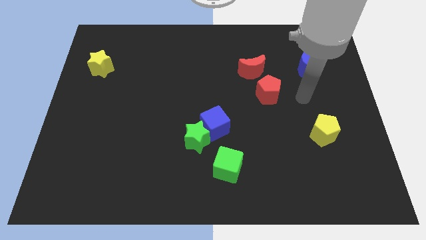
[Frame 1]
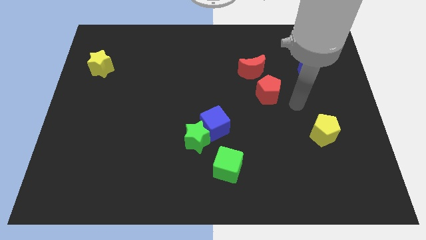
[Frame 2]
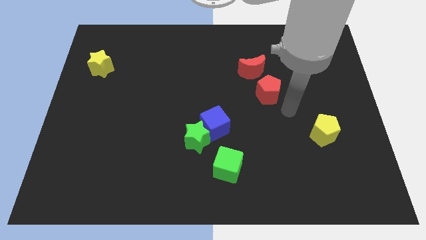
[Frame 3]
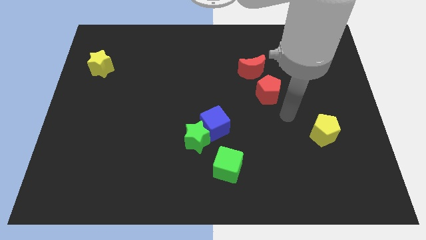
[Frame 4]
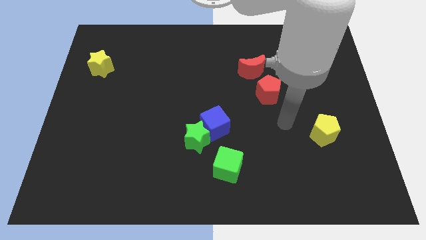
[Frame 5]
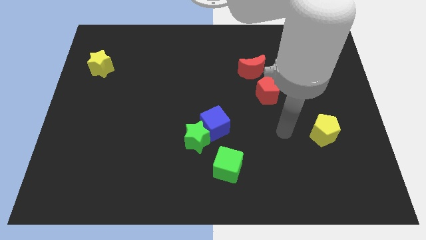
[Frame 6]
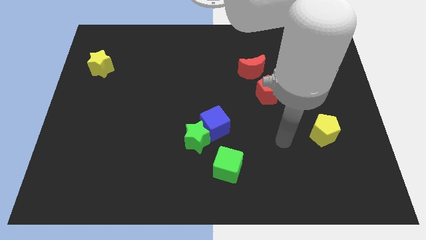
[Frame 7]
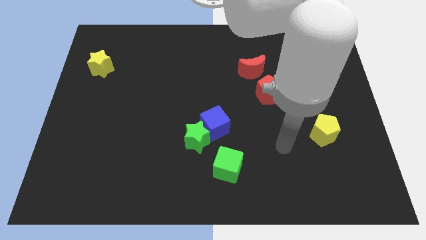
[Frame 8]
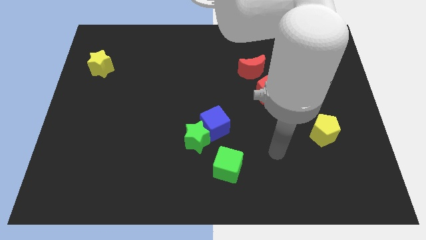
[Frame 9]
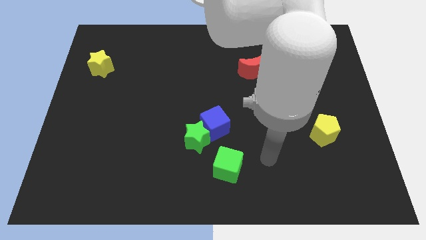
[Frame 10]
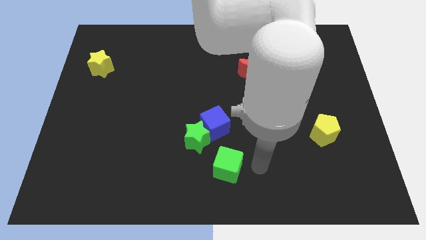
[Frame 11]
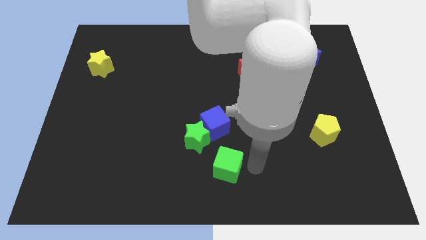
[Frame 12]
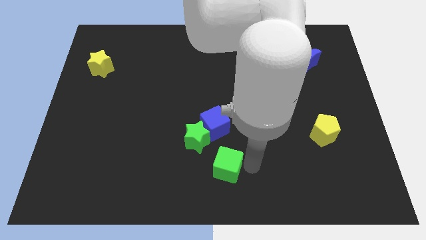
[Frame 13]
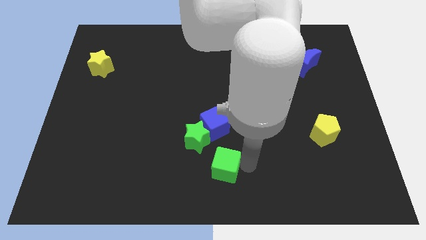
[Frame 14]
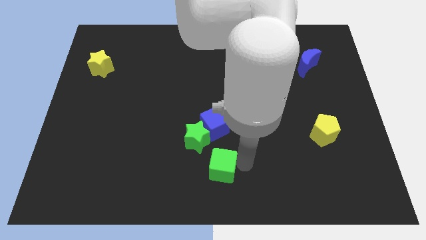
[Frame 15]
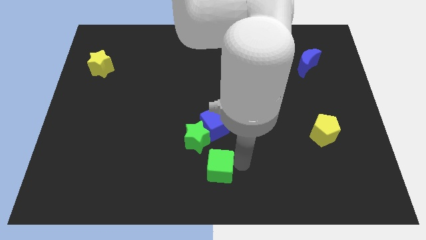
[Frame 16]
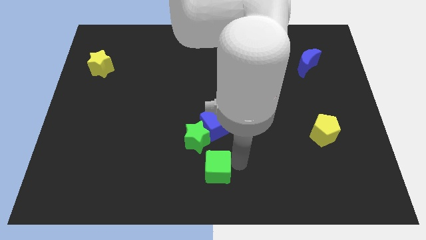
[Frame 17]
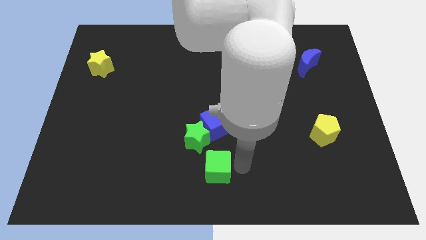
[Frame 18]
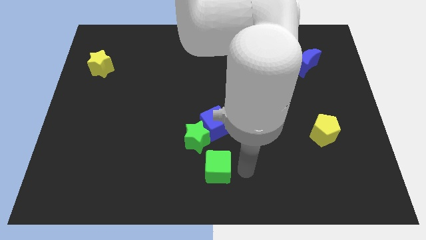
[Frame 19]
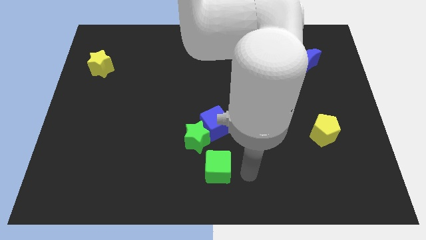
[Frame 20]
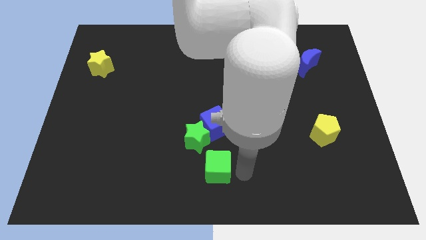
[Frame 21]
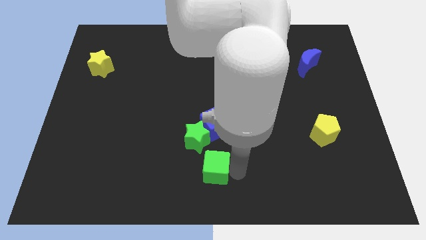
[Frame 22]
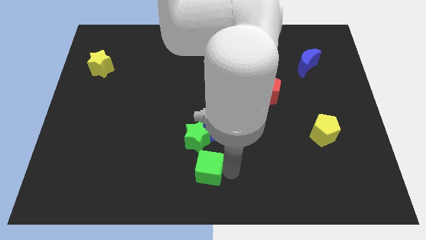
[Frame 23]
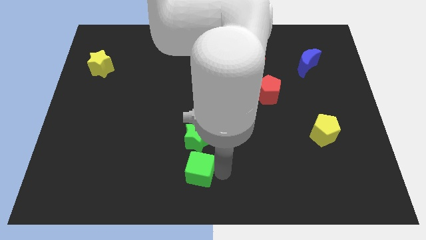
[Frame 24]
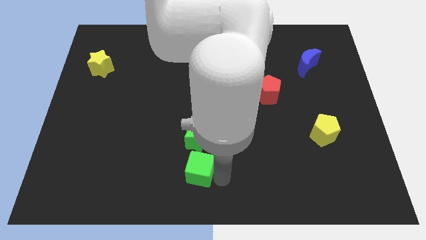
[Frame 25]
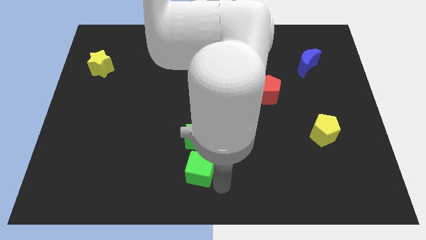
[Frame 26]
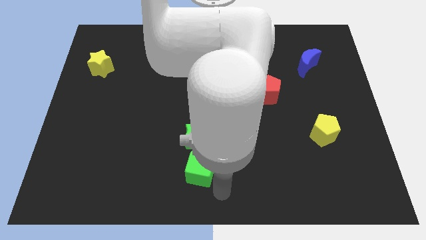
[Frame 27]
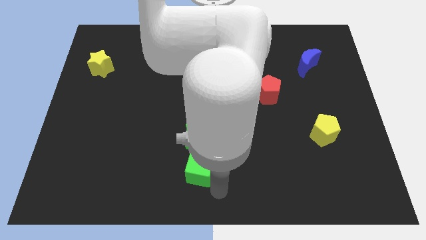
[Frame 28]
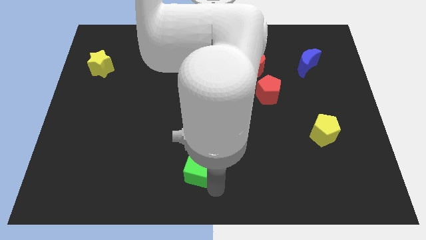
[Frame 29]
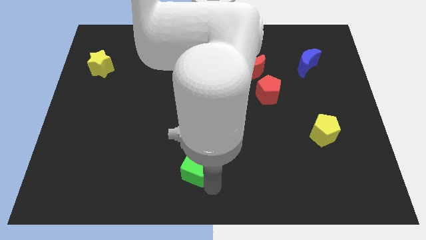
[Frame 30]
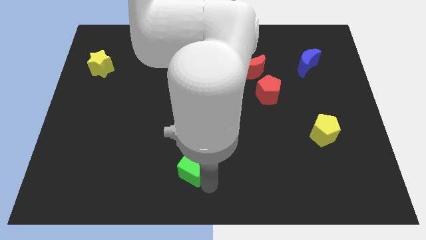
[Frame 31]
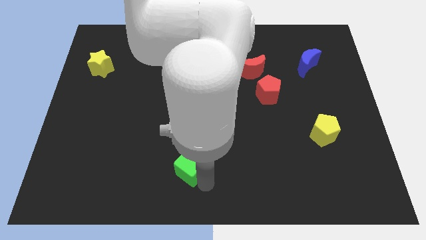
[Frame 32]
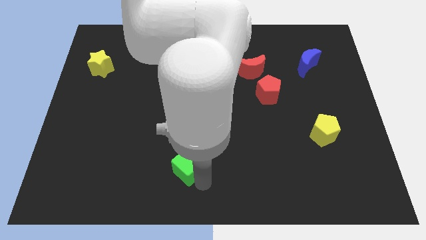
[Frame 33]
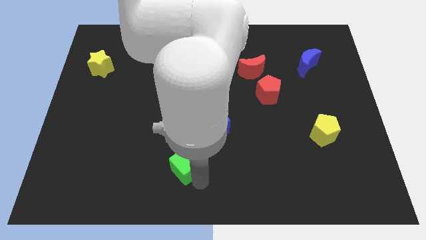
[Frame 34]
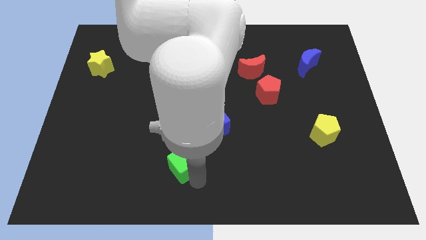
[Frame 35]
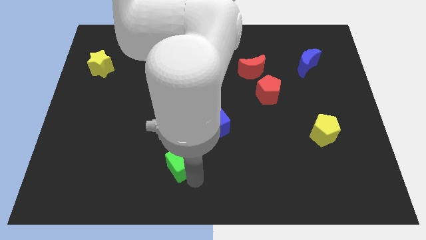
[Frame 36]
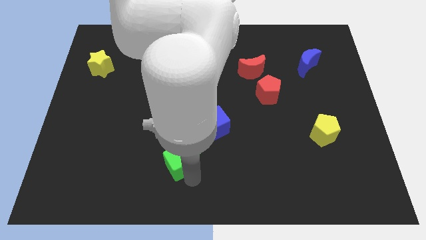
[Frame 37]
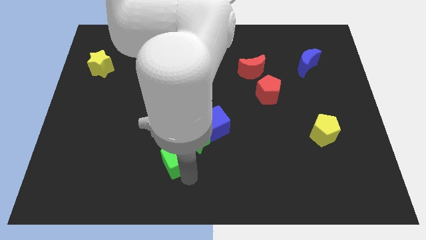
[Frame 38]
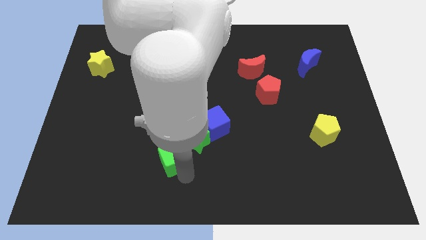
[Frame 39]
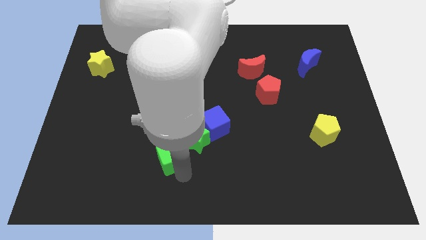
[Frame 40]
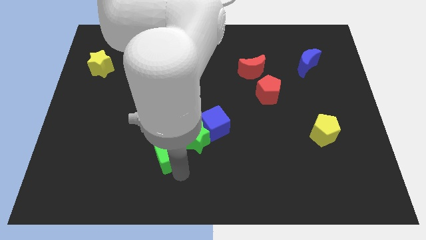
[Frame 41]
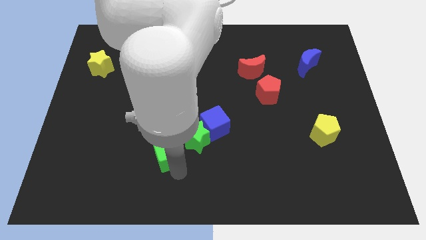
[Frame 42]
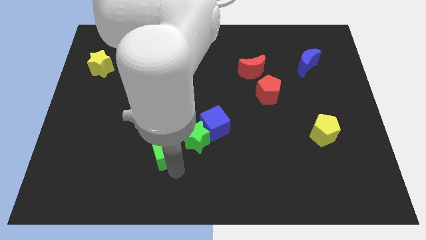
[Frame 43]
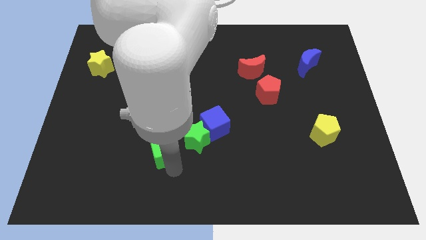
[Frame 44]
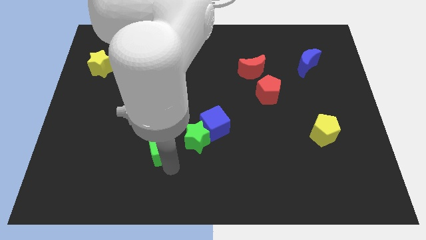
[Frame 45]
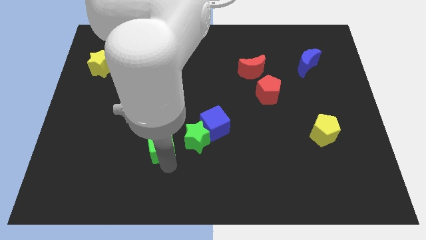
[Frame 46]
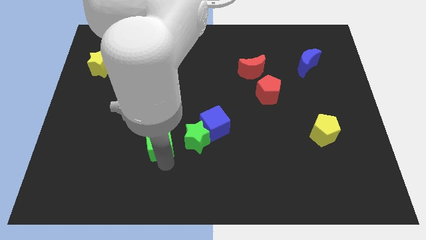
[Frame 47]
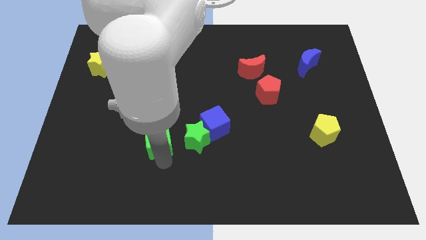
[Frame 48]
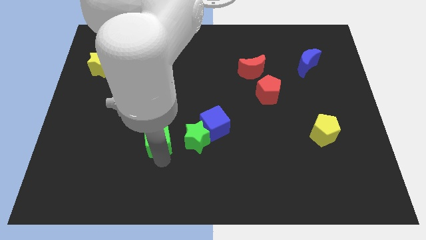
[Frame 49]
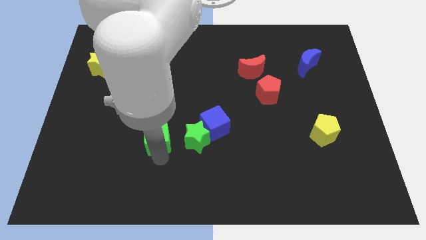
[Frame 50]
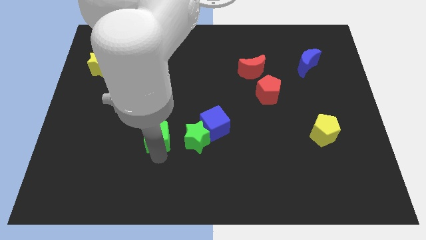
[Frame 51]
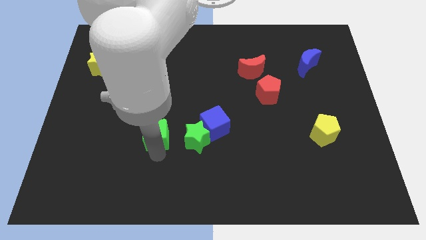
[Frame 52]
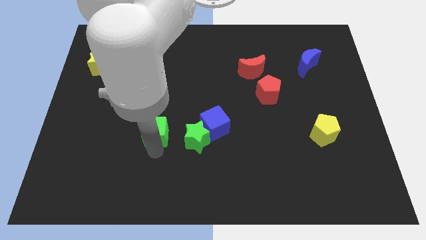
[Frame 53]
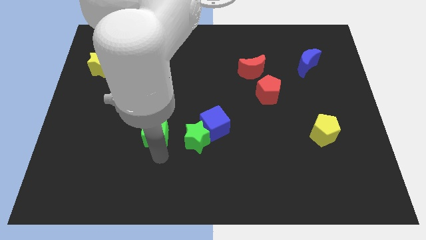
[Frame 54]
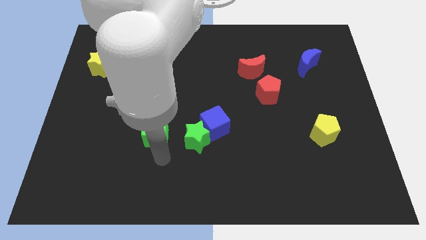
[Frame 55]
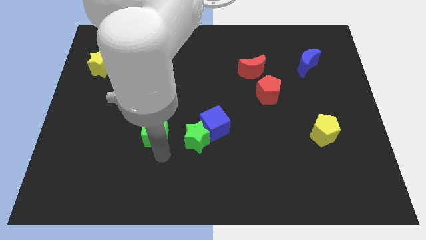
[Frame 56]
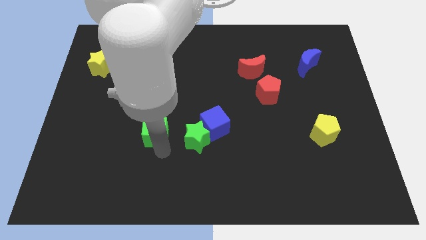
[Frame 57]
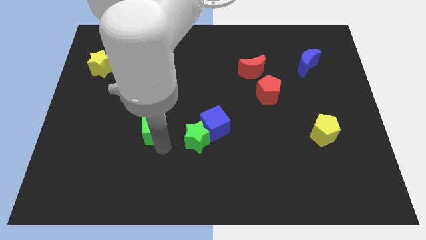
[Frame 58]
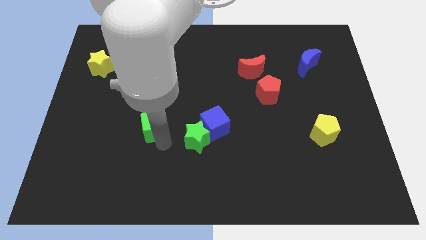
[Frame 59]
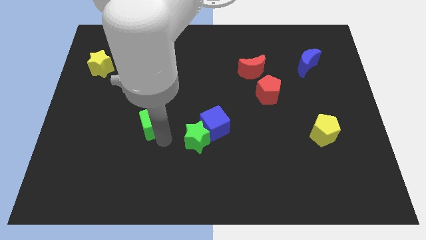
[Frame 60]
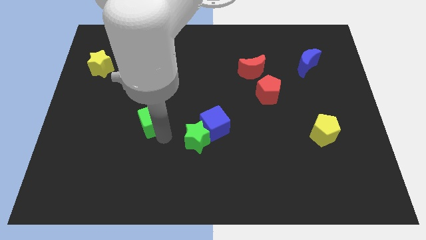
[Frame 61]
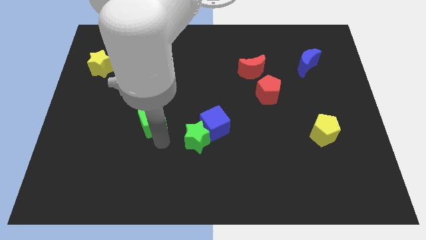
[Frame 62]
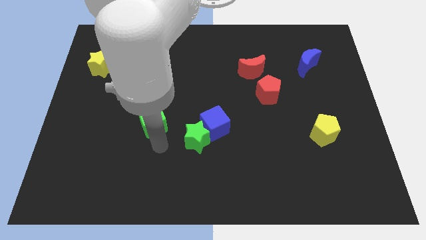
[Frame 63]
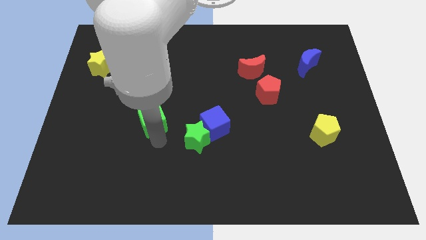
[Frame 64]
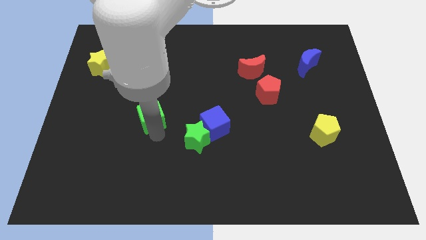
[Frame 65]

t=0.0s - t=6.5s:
move the green cube diagonally up and to the left

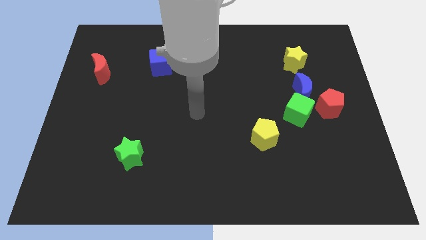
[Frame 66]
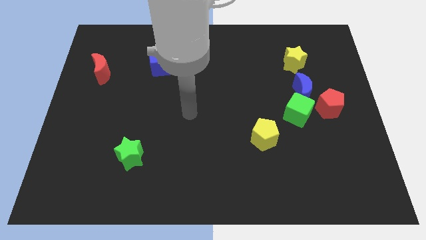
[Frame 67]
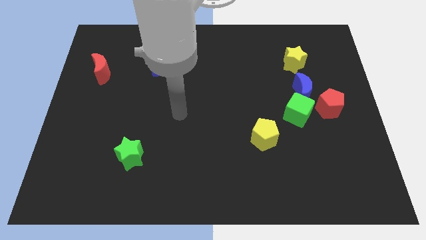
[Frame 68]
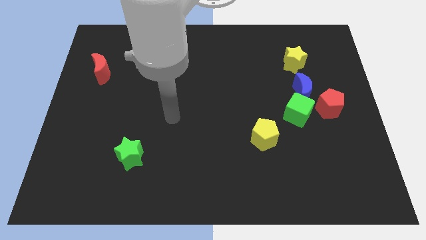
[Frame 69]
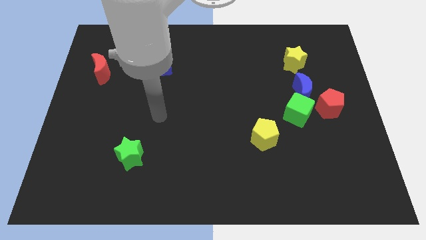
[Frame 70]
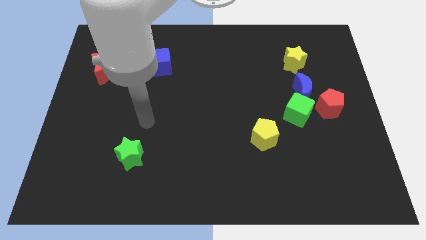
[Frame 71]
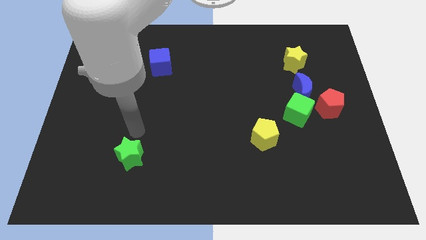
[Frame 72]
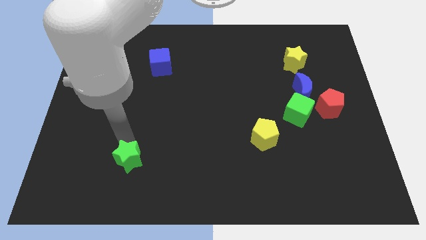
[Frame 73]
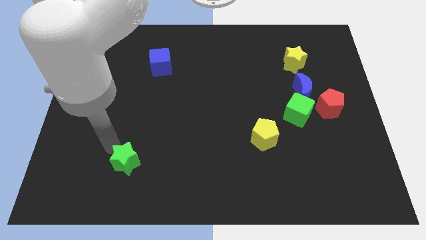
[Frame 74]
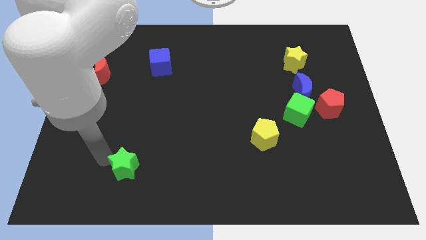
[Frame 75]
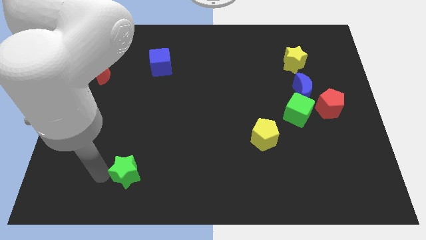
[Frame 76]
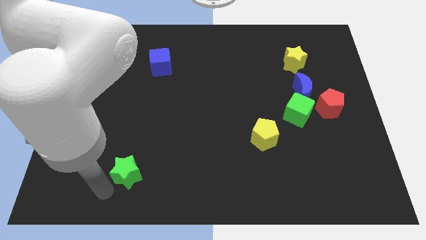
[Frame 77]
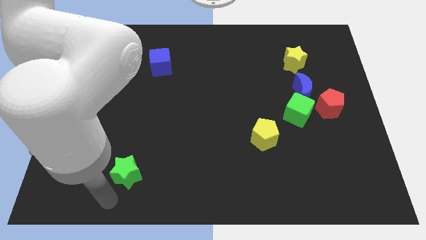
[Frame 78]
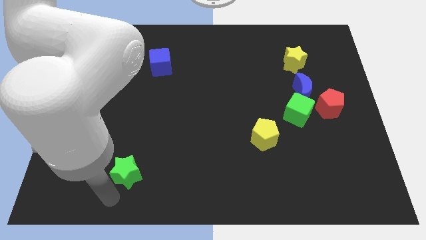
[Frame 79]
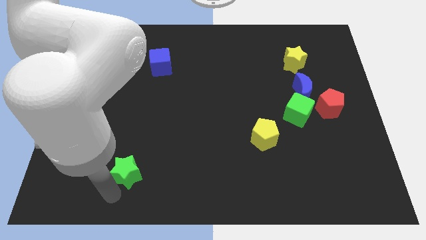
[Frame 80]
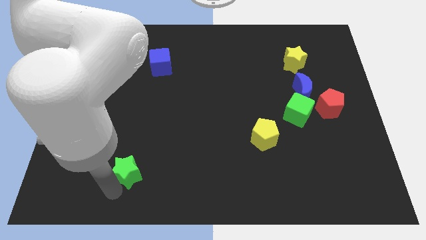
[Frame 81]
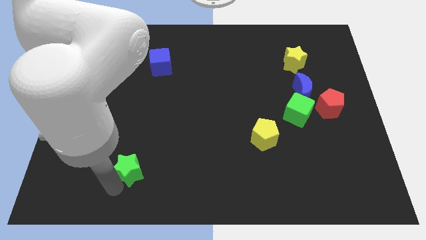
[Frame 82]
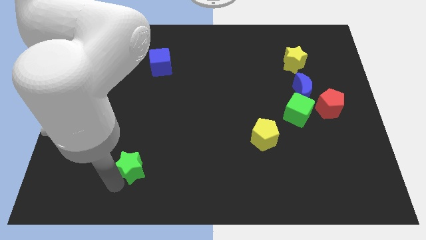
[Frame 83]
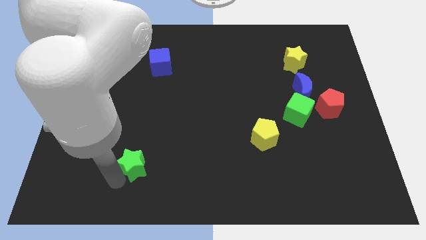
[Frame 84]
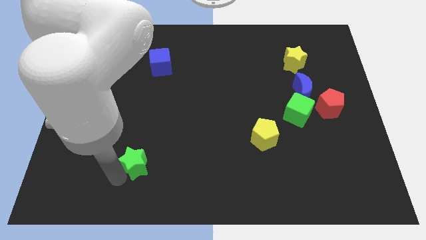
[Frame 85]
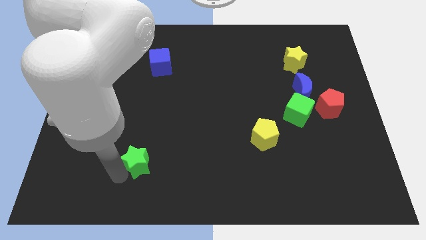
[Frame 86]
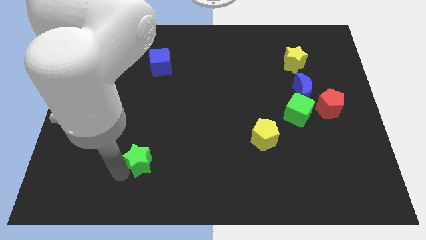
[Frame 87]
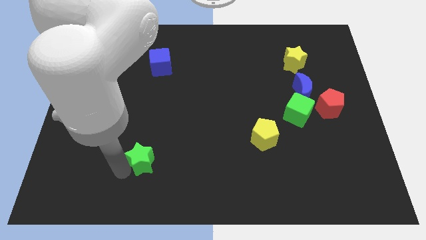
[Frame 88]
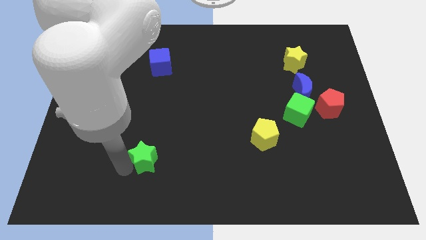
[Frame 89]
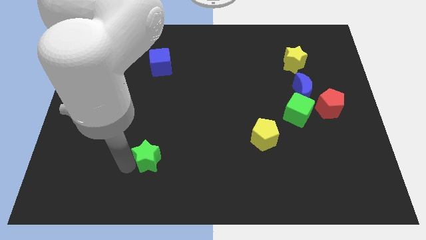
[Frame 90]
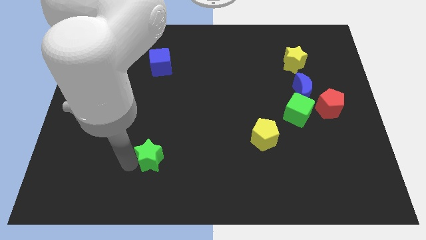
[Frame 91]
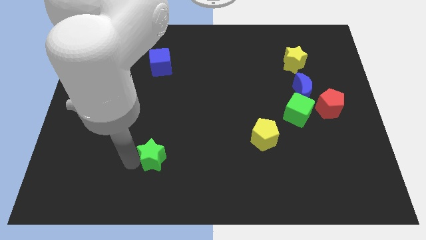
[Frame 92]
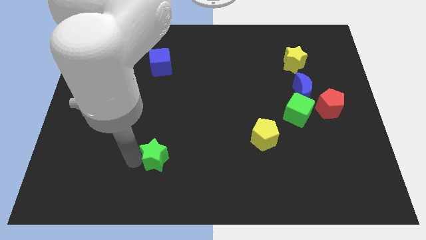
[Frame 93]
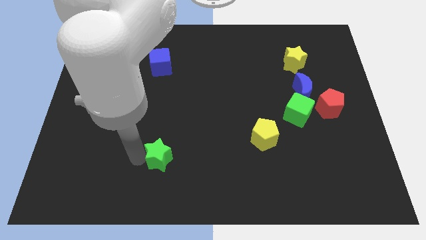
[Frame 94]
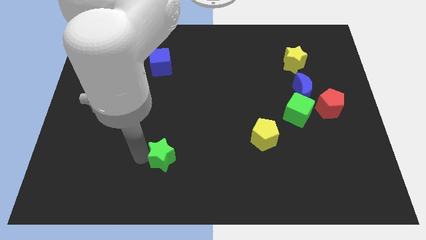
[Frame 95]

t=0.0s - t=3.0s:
slightly move the green star right
